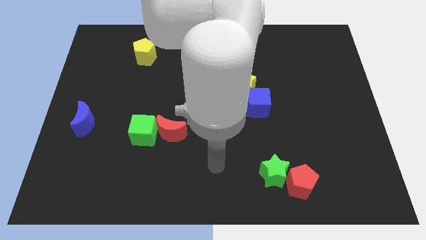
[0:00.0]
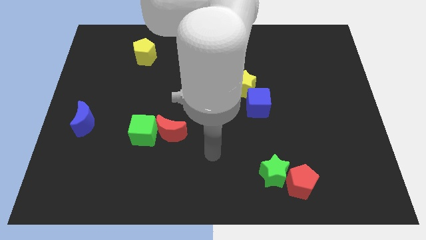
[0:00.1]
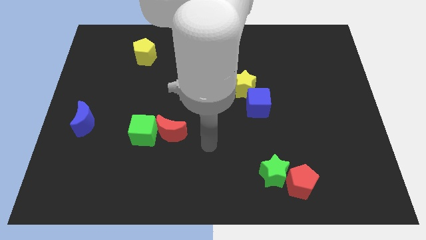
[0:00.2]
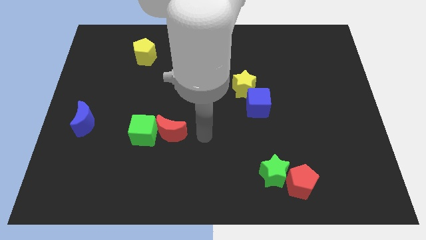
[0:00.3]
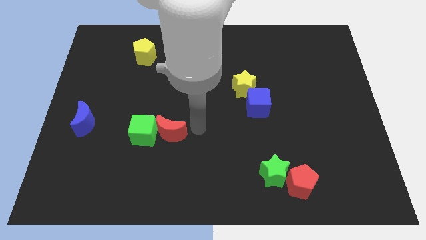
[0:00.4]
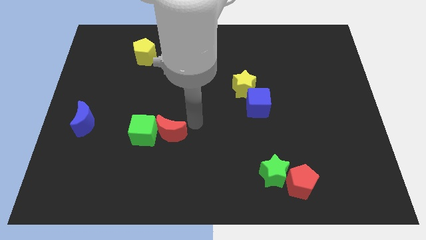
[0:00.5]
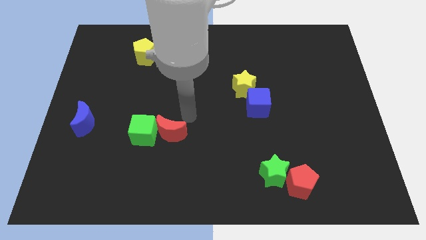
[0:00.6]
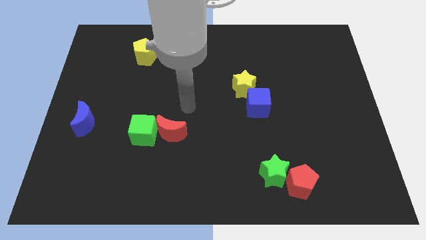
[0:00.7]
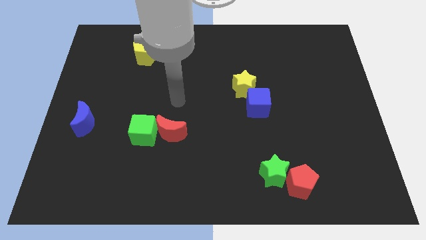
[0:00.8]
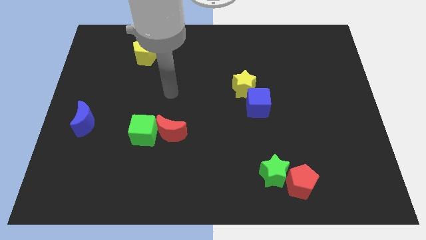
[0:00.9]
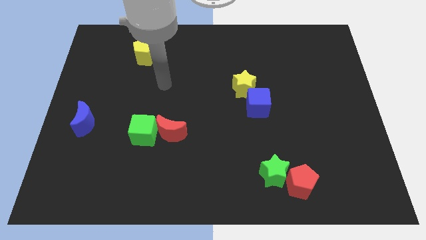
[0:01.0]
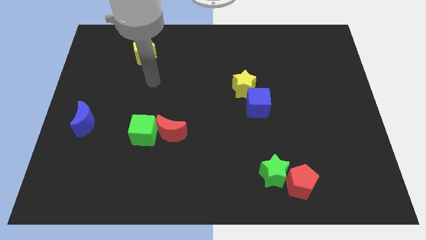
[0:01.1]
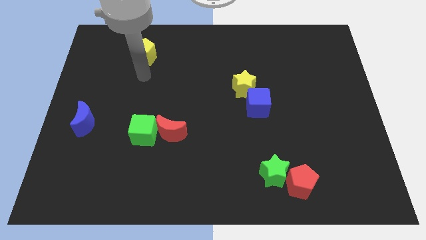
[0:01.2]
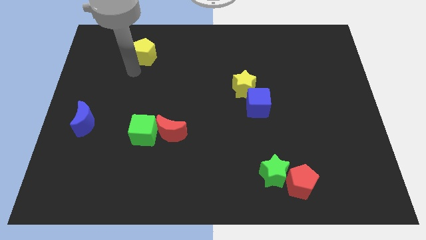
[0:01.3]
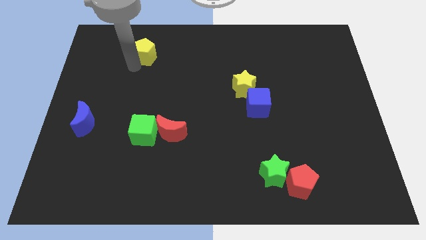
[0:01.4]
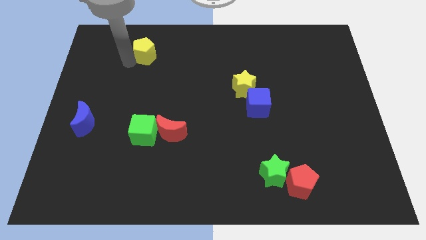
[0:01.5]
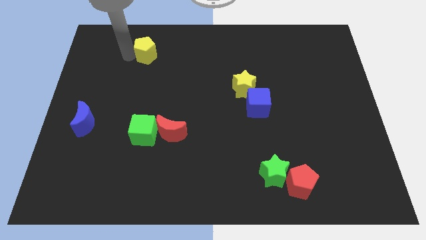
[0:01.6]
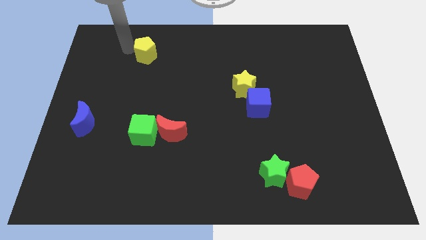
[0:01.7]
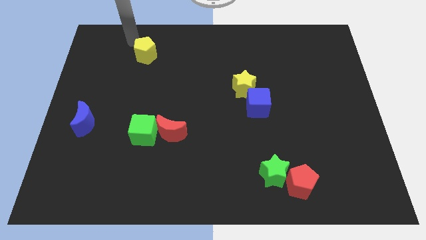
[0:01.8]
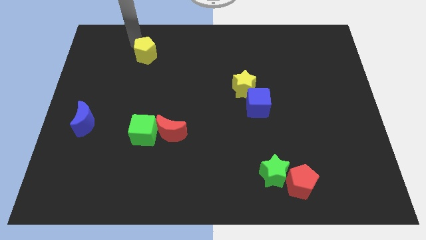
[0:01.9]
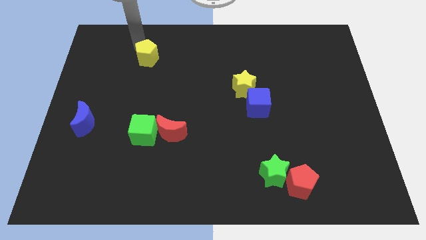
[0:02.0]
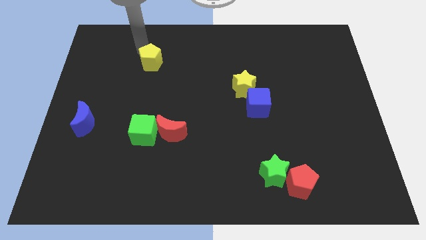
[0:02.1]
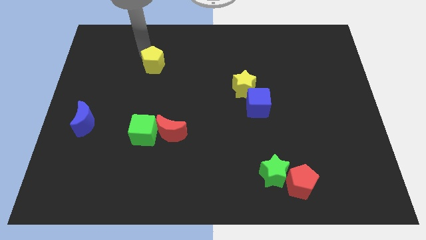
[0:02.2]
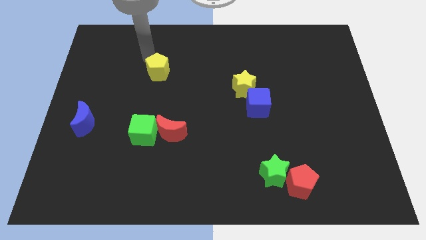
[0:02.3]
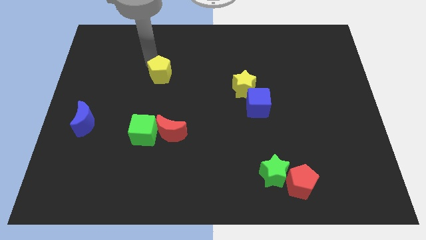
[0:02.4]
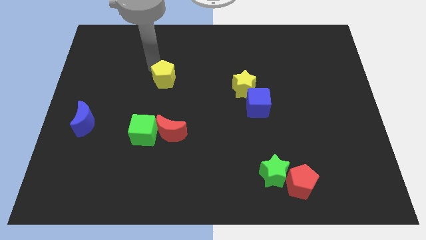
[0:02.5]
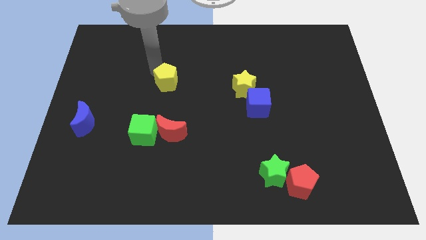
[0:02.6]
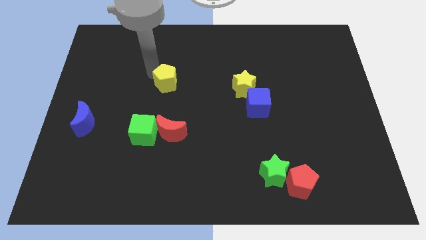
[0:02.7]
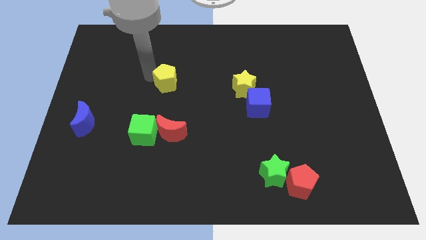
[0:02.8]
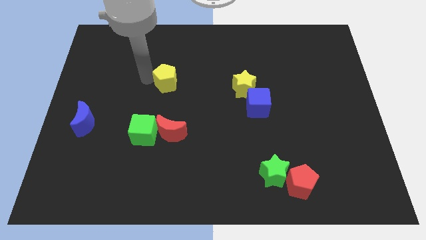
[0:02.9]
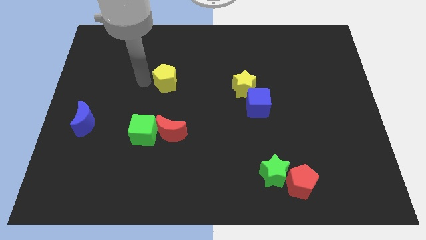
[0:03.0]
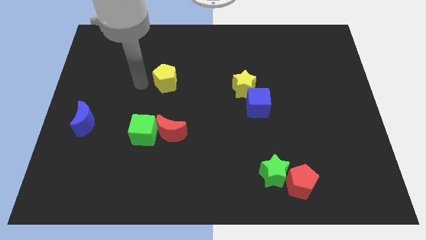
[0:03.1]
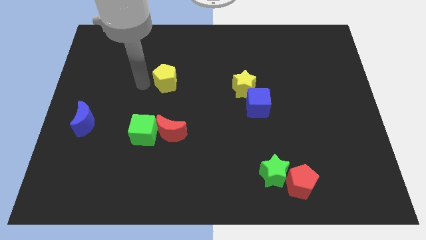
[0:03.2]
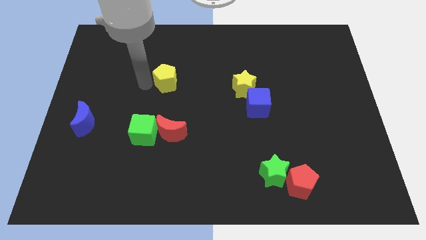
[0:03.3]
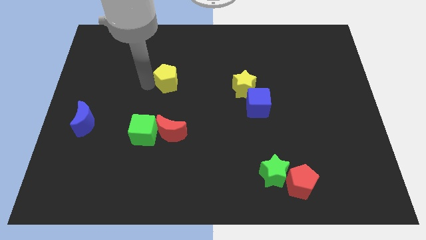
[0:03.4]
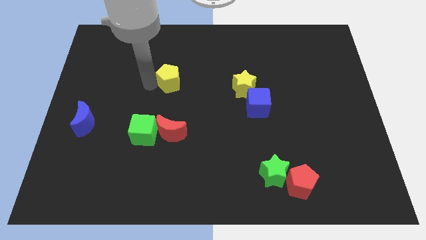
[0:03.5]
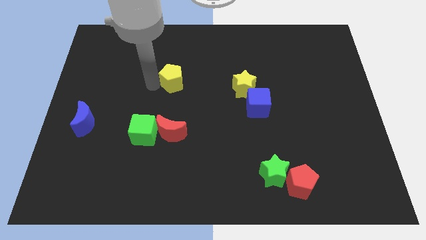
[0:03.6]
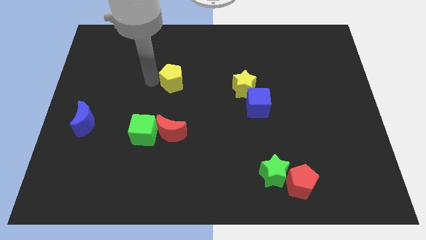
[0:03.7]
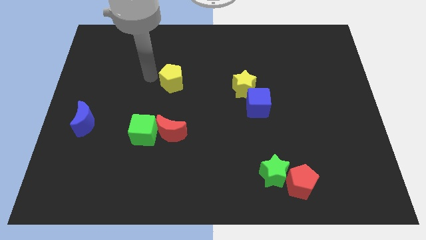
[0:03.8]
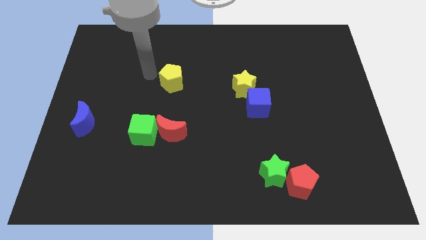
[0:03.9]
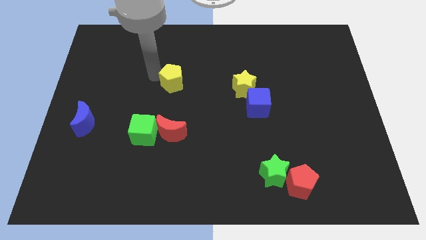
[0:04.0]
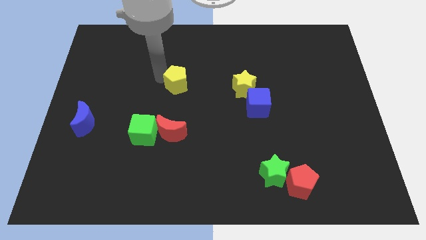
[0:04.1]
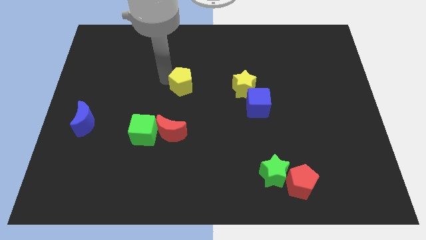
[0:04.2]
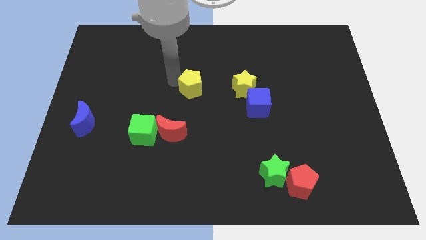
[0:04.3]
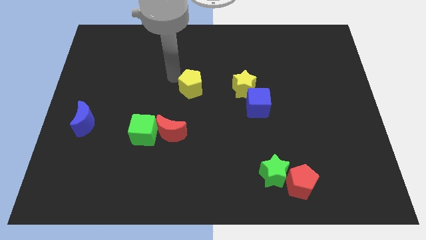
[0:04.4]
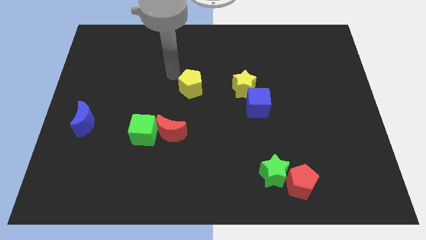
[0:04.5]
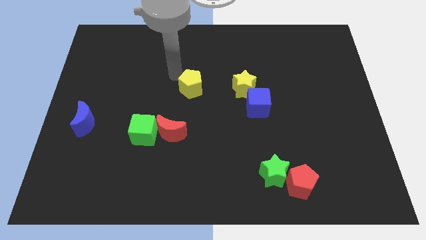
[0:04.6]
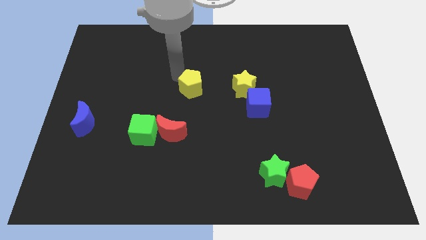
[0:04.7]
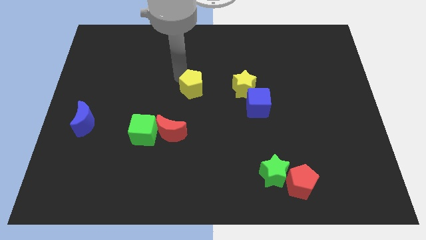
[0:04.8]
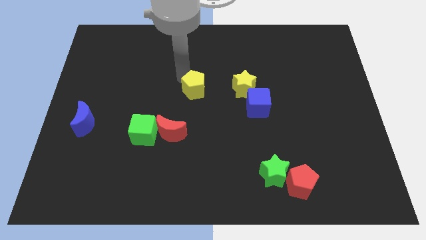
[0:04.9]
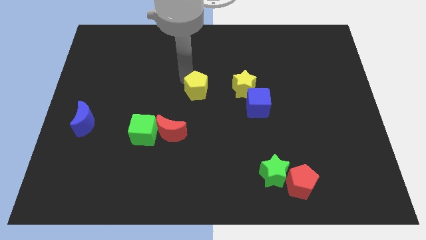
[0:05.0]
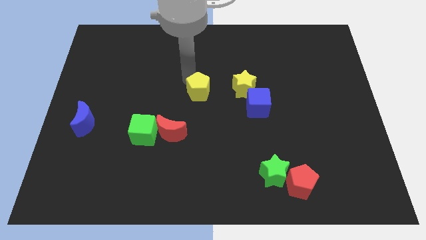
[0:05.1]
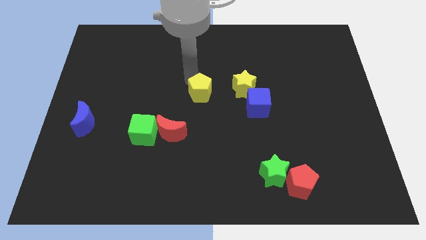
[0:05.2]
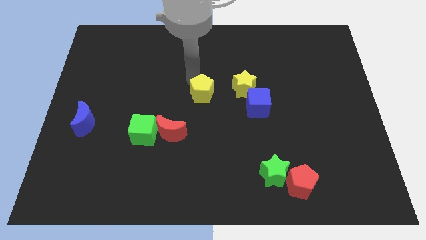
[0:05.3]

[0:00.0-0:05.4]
move the yellow pentagon down and then to the right

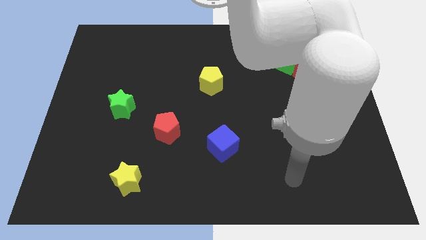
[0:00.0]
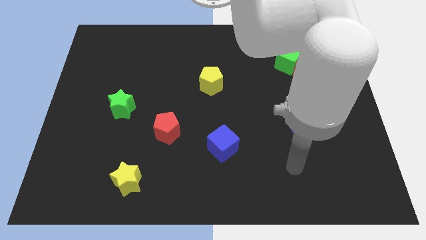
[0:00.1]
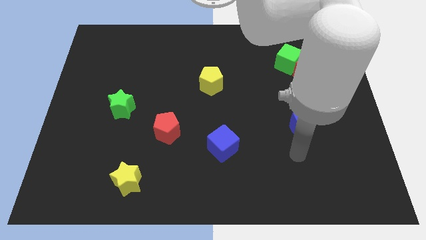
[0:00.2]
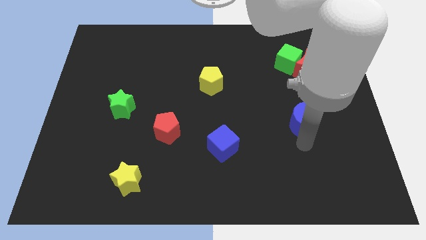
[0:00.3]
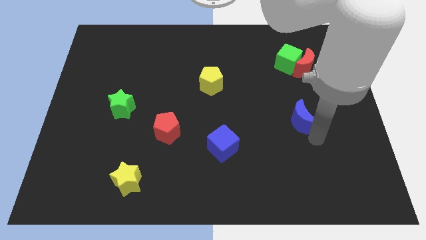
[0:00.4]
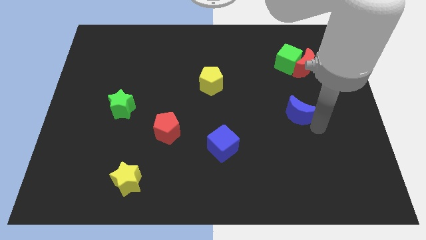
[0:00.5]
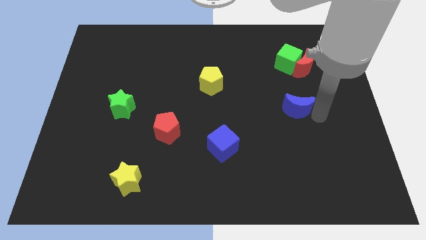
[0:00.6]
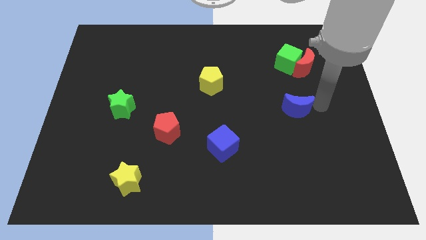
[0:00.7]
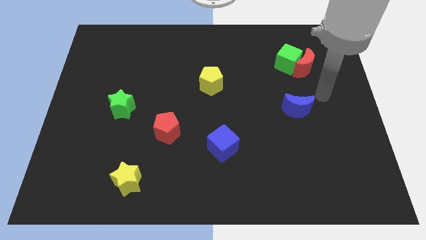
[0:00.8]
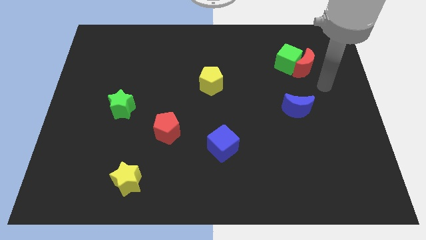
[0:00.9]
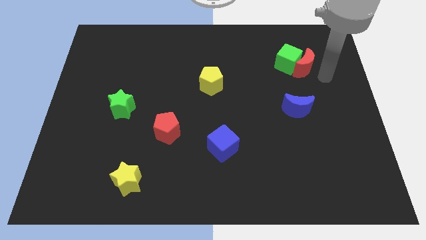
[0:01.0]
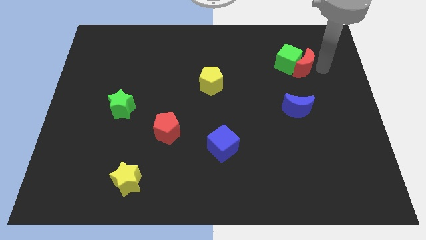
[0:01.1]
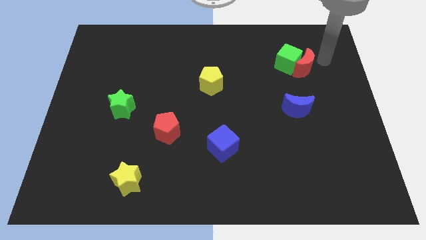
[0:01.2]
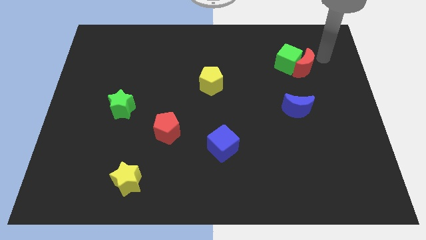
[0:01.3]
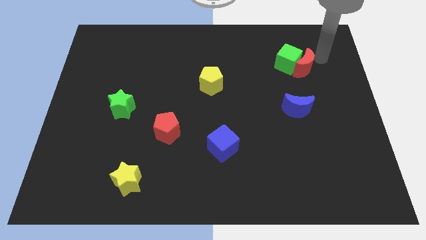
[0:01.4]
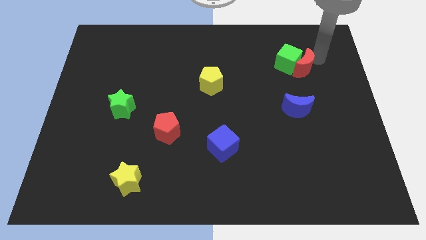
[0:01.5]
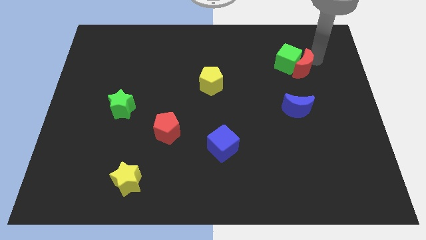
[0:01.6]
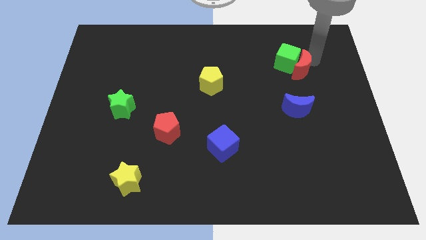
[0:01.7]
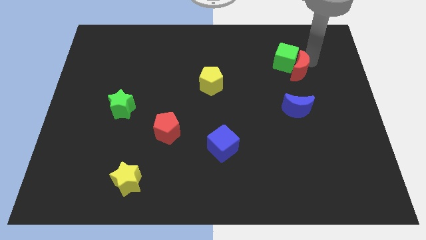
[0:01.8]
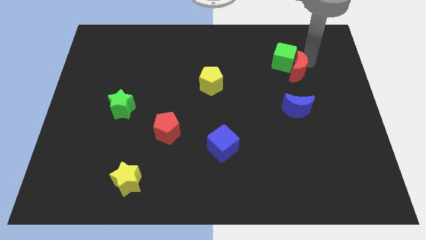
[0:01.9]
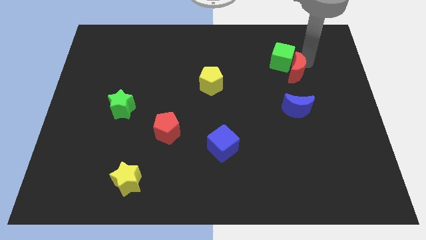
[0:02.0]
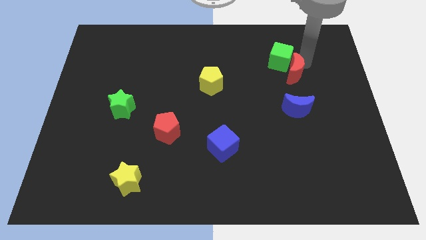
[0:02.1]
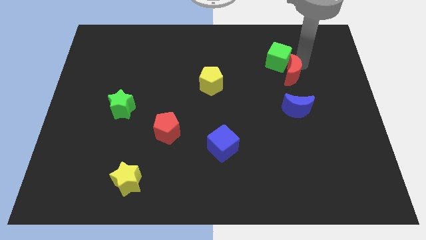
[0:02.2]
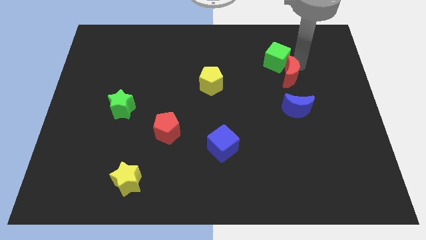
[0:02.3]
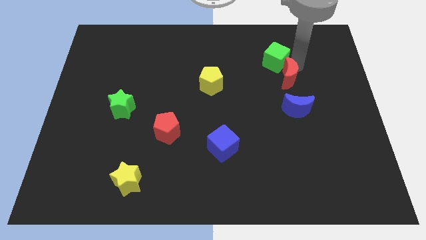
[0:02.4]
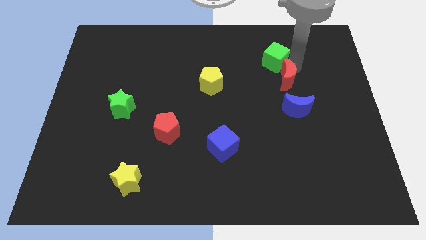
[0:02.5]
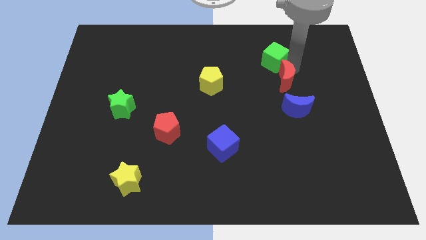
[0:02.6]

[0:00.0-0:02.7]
move the red moon downwards and then left a bit
